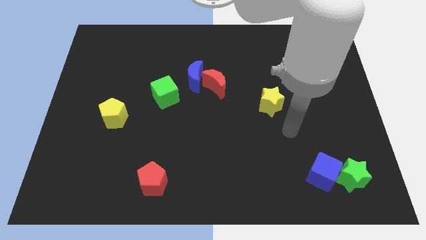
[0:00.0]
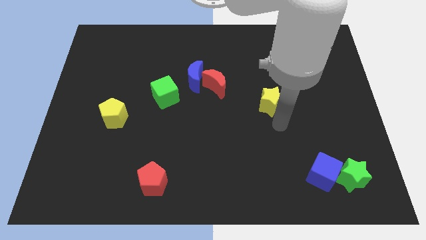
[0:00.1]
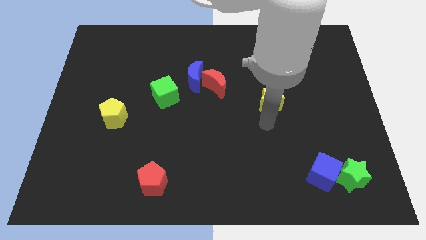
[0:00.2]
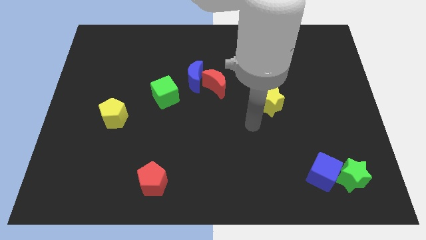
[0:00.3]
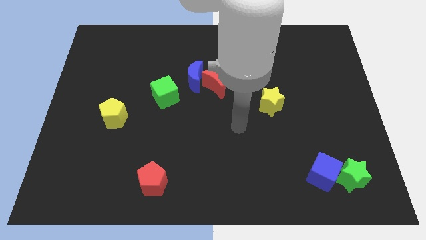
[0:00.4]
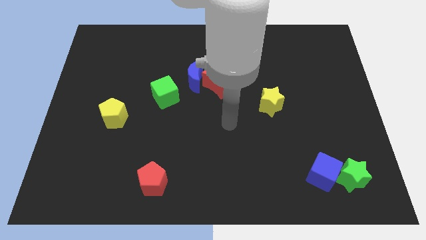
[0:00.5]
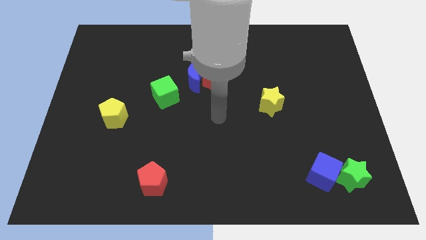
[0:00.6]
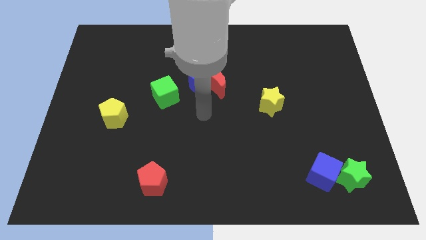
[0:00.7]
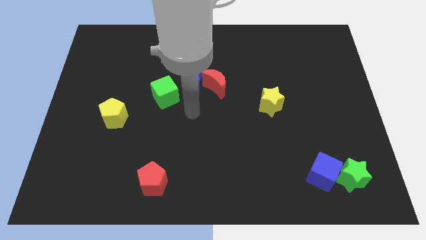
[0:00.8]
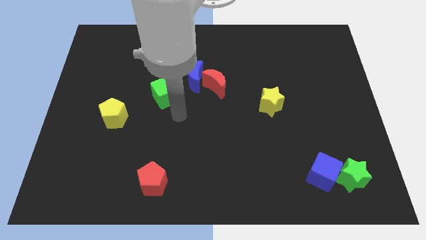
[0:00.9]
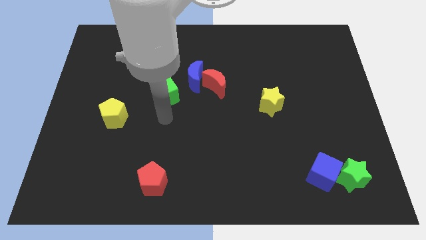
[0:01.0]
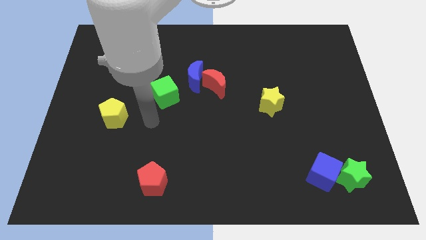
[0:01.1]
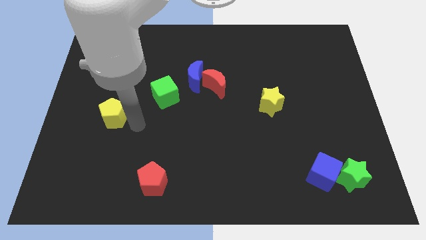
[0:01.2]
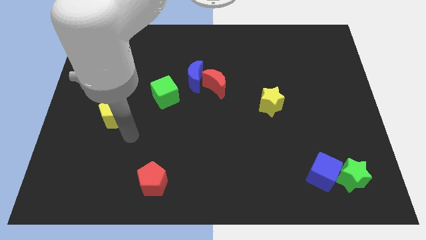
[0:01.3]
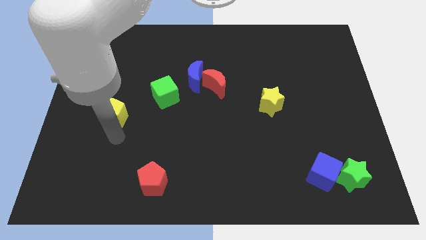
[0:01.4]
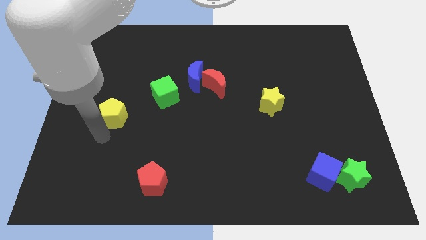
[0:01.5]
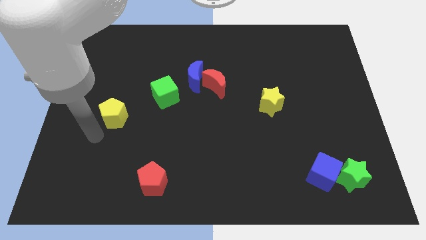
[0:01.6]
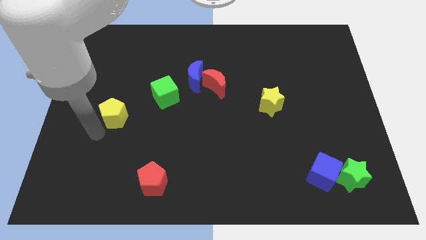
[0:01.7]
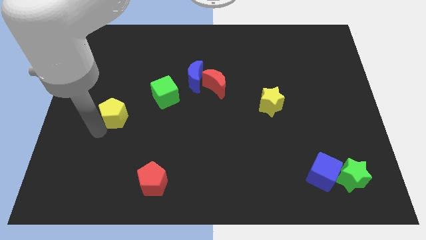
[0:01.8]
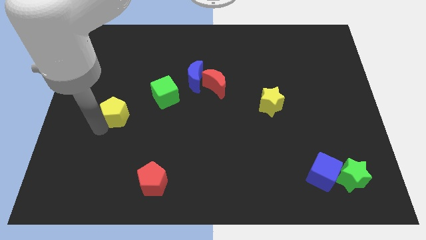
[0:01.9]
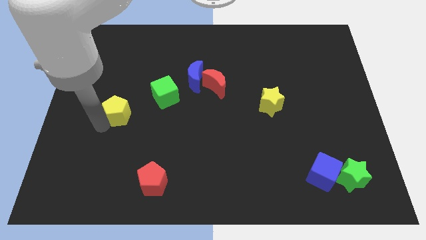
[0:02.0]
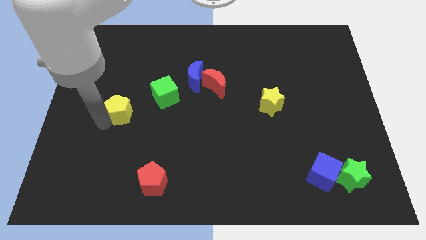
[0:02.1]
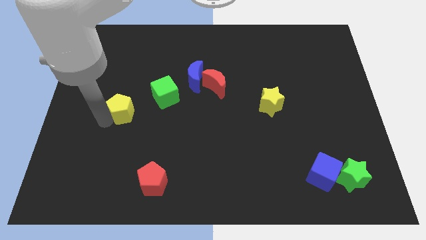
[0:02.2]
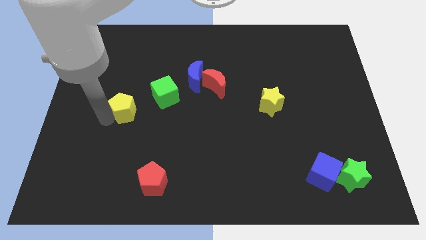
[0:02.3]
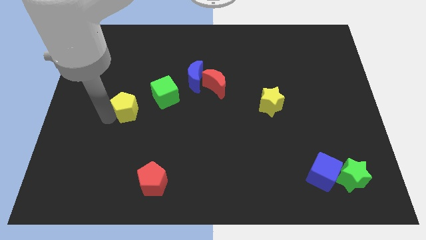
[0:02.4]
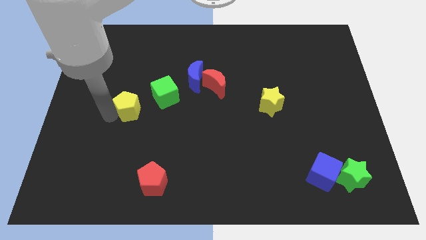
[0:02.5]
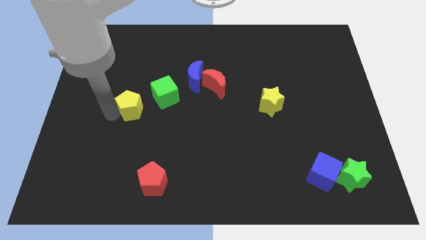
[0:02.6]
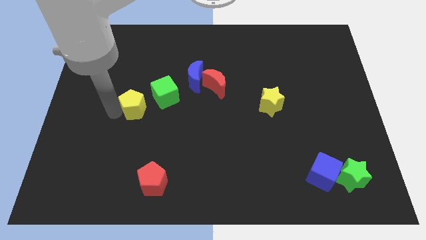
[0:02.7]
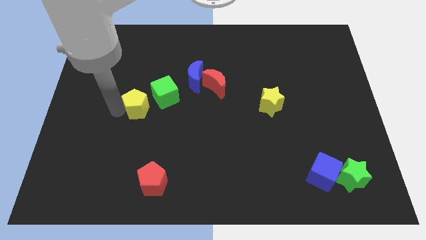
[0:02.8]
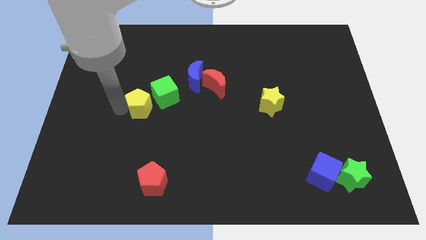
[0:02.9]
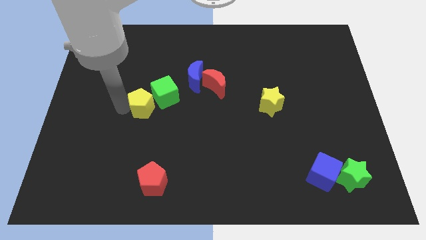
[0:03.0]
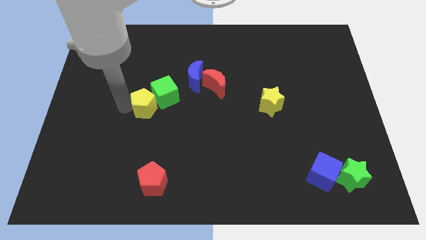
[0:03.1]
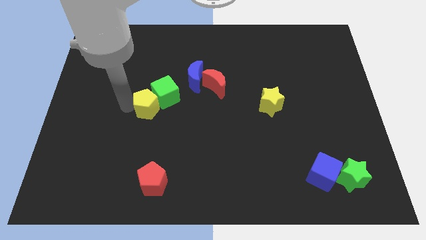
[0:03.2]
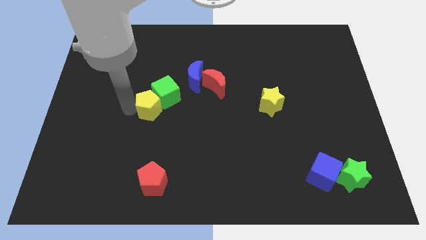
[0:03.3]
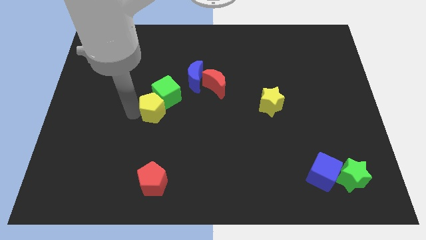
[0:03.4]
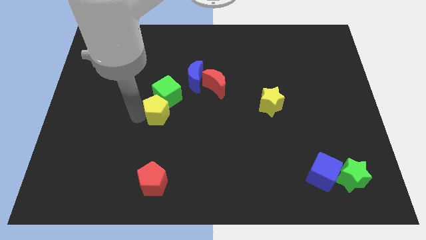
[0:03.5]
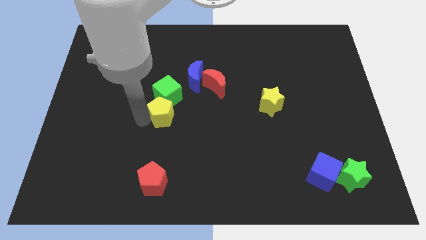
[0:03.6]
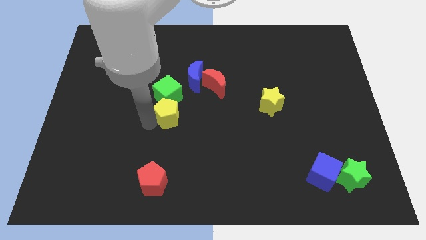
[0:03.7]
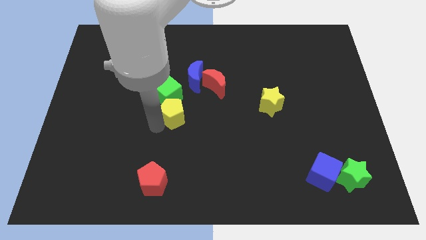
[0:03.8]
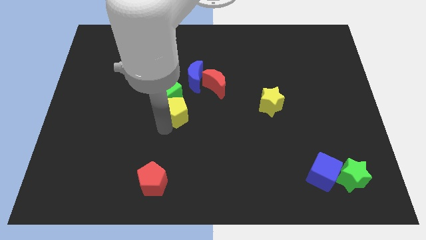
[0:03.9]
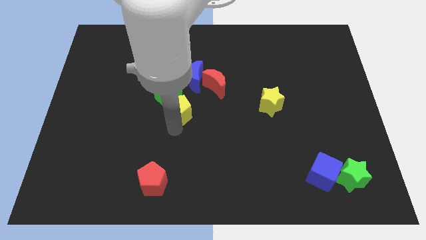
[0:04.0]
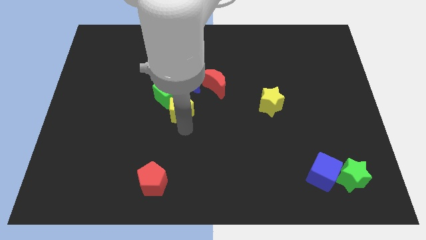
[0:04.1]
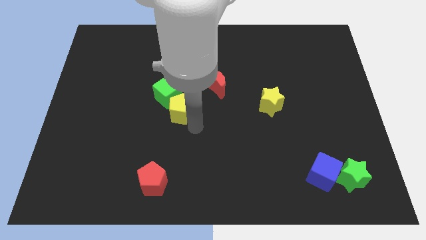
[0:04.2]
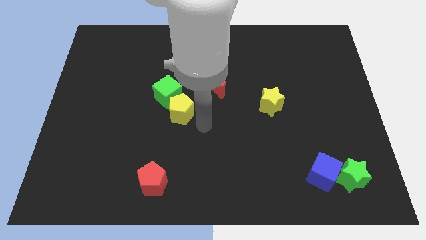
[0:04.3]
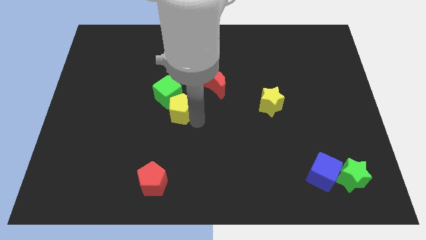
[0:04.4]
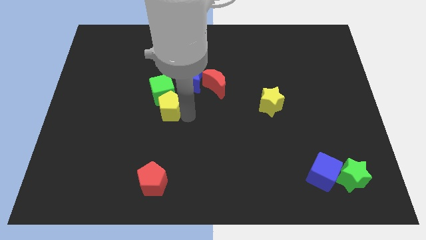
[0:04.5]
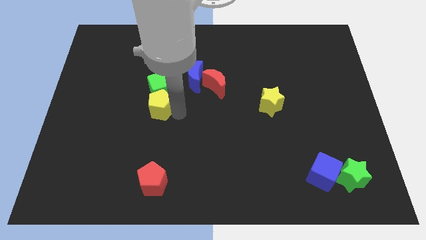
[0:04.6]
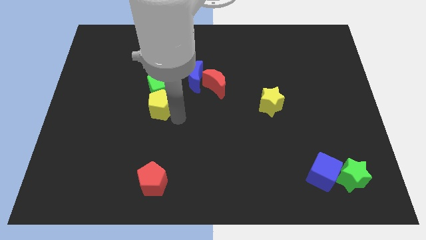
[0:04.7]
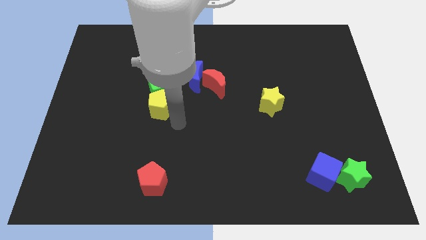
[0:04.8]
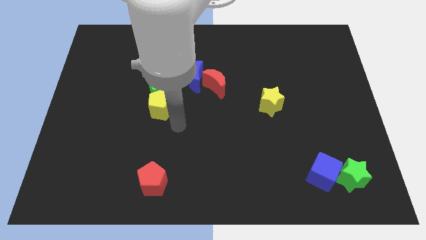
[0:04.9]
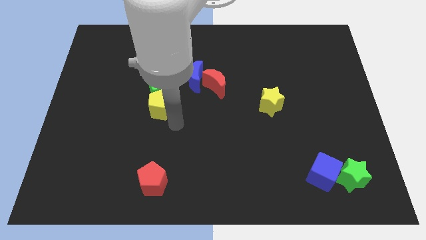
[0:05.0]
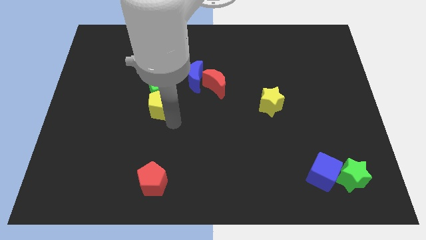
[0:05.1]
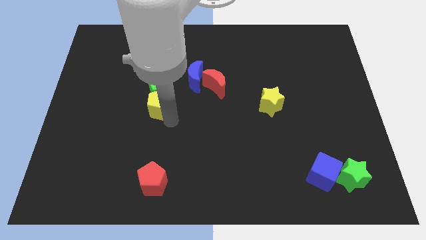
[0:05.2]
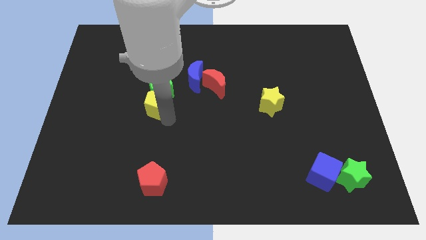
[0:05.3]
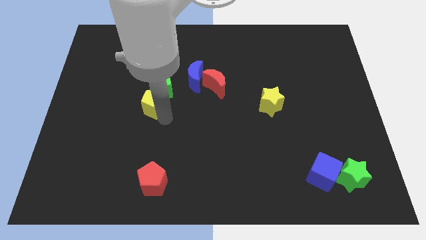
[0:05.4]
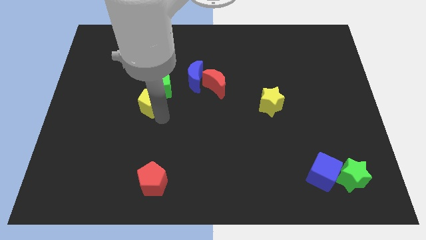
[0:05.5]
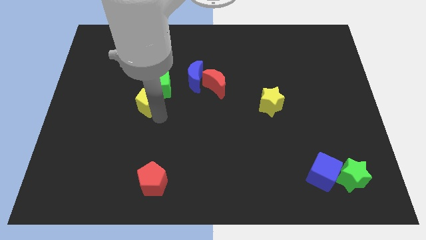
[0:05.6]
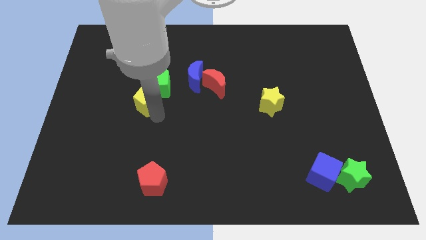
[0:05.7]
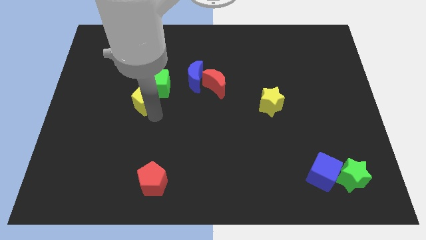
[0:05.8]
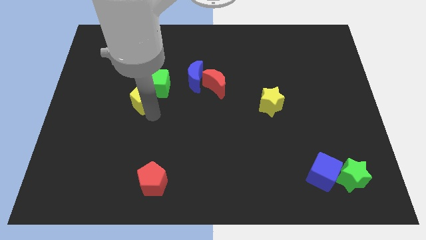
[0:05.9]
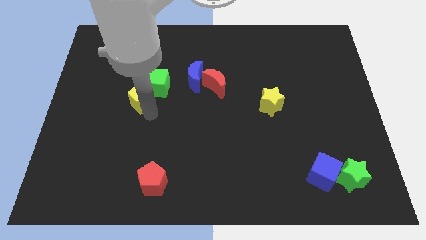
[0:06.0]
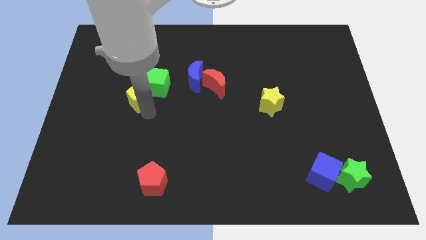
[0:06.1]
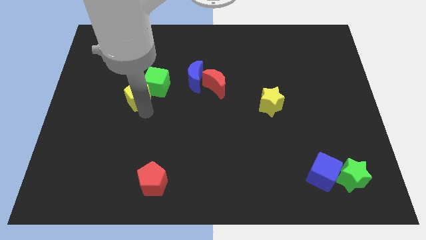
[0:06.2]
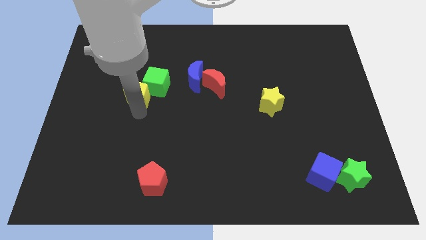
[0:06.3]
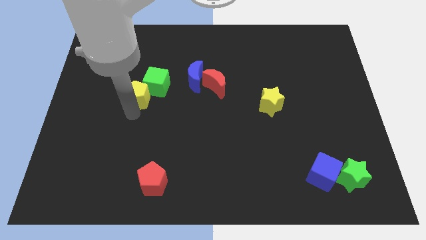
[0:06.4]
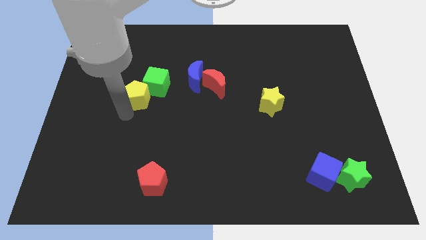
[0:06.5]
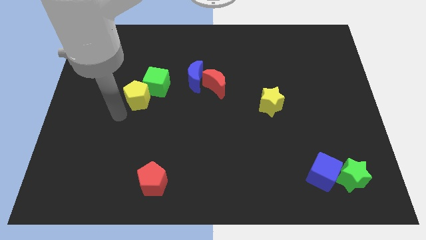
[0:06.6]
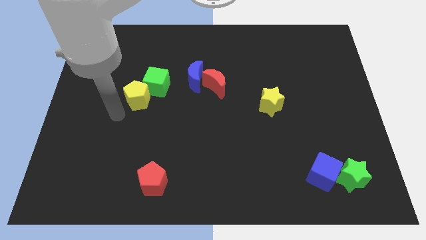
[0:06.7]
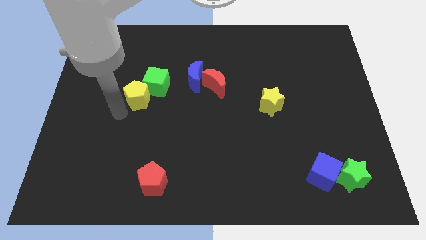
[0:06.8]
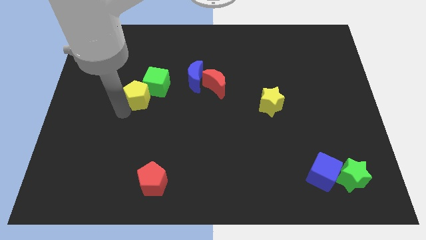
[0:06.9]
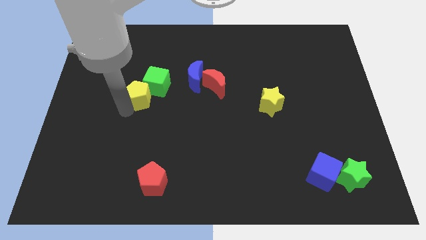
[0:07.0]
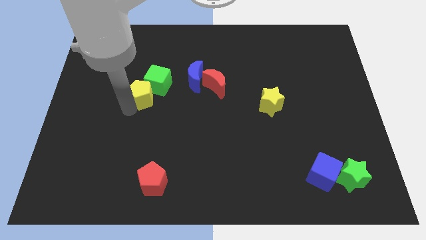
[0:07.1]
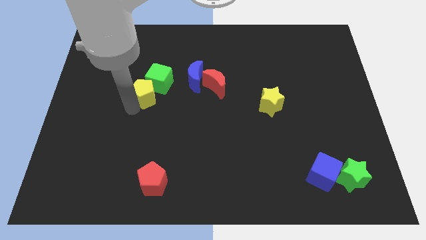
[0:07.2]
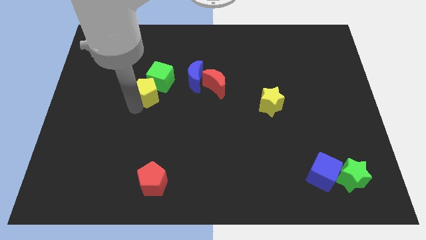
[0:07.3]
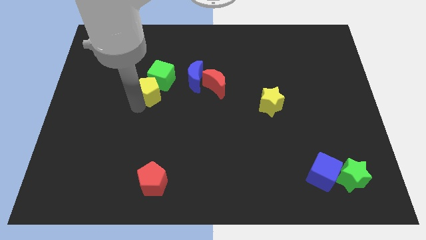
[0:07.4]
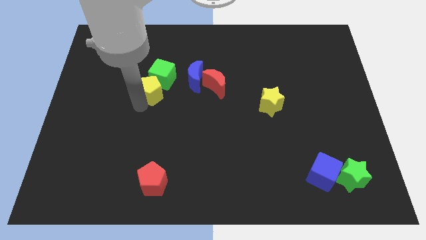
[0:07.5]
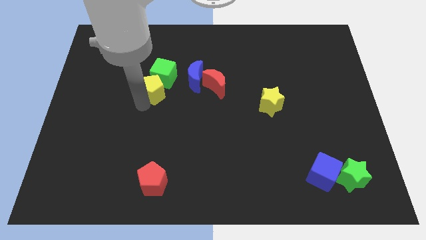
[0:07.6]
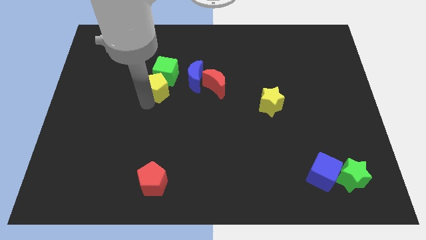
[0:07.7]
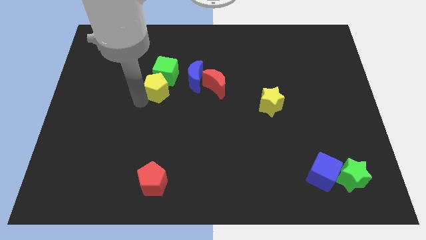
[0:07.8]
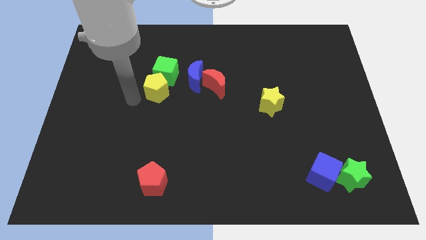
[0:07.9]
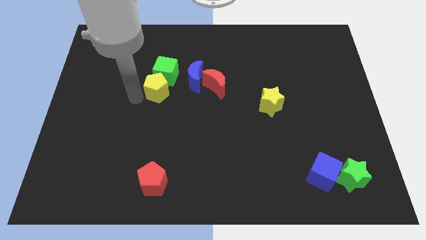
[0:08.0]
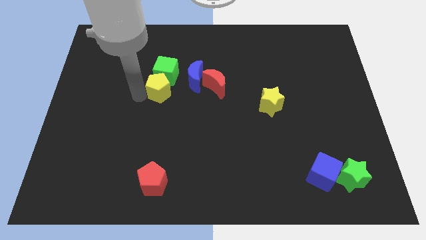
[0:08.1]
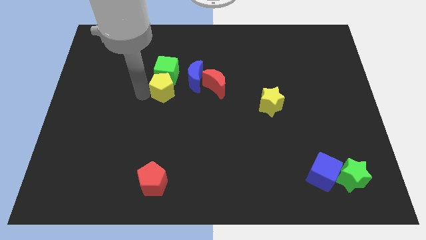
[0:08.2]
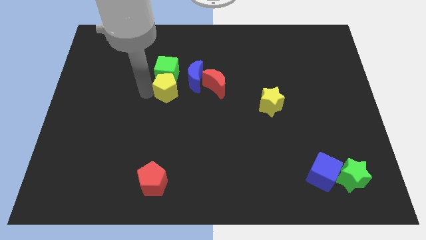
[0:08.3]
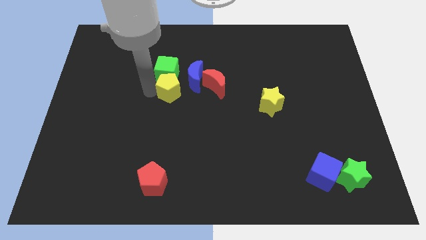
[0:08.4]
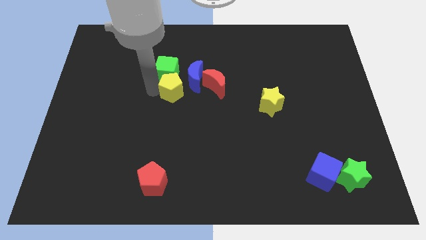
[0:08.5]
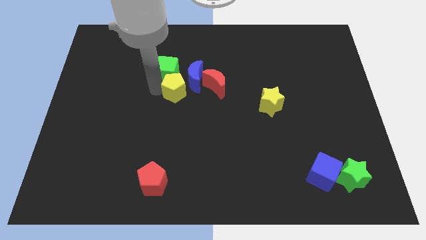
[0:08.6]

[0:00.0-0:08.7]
push the yellow pentagon close to the blue moon
